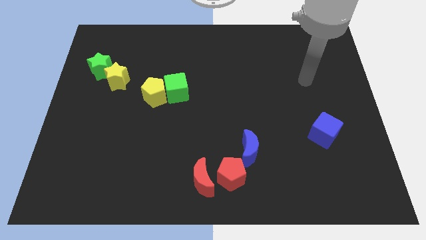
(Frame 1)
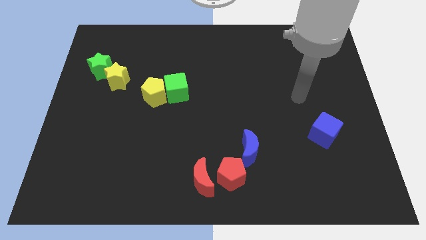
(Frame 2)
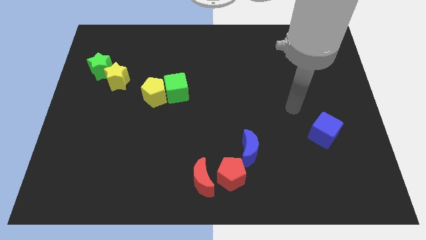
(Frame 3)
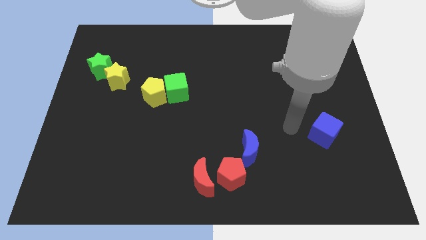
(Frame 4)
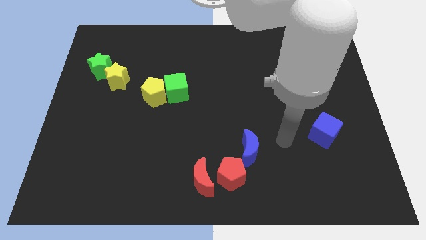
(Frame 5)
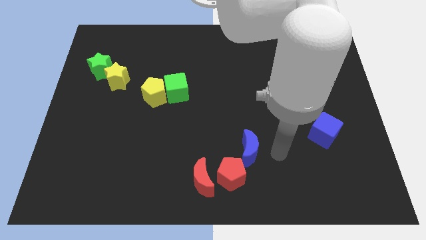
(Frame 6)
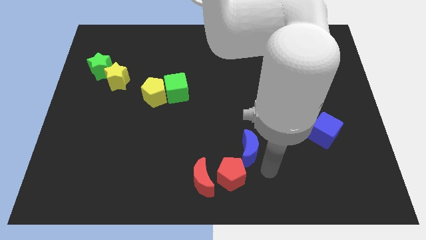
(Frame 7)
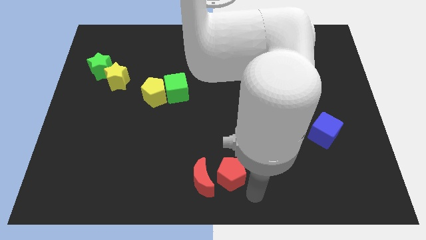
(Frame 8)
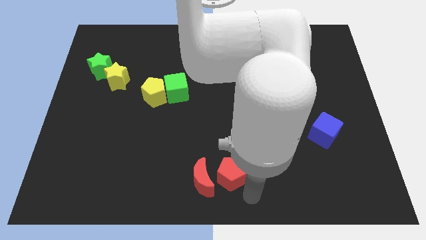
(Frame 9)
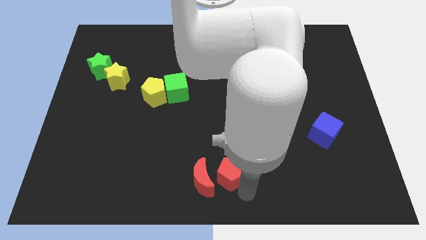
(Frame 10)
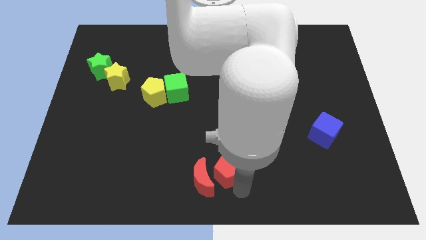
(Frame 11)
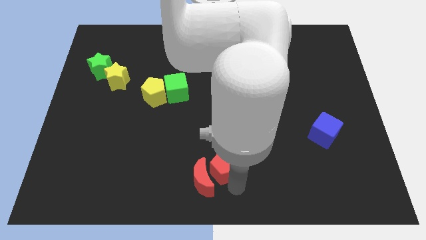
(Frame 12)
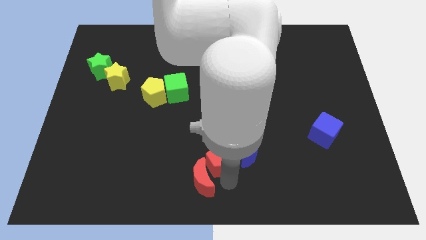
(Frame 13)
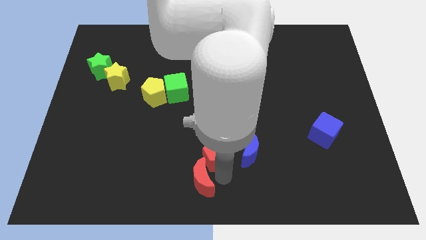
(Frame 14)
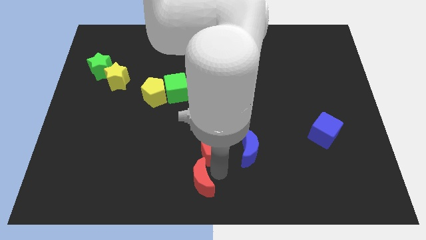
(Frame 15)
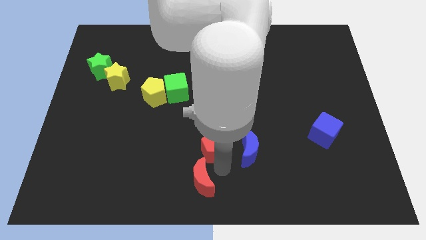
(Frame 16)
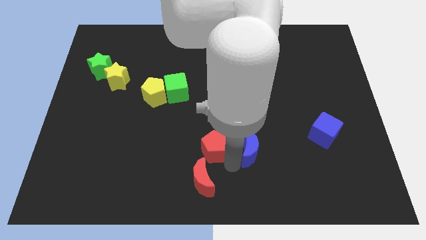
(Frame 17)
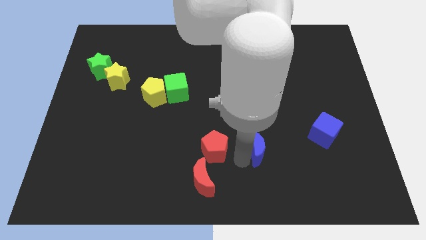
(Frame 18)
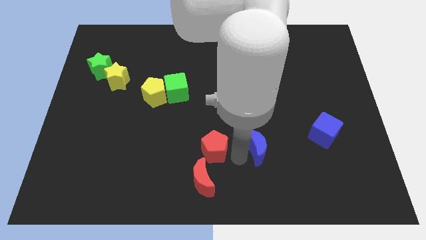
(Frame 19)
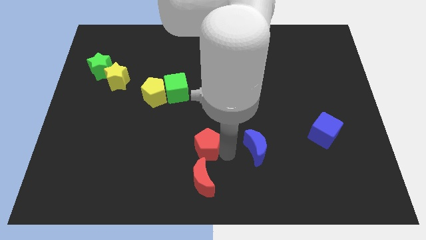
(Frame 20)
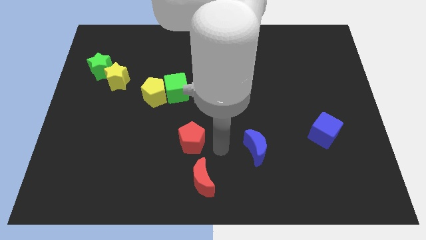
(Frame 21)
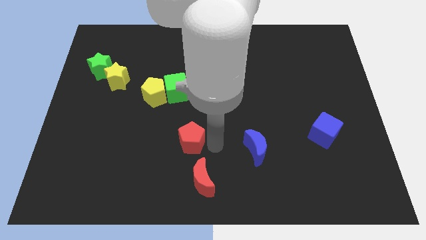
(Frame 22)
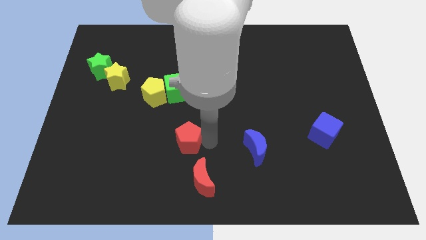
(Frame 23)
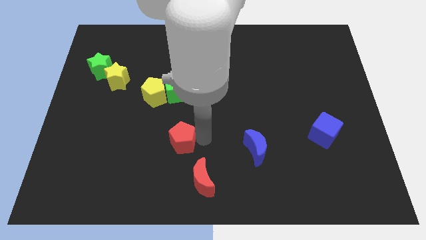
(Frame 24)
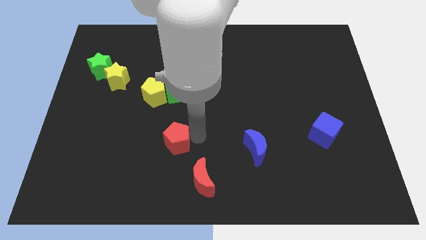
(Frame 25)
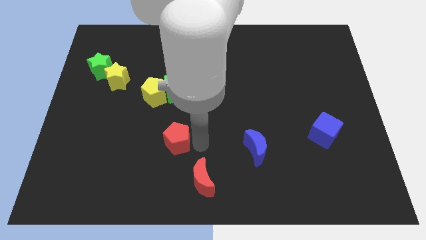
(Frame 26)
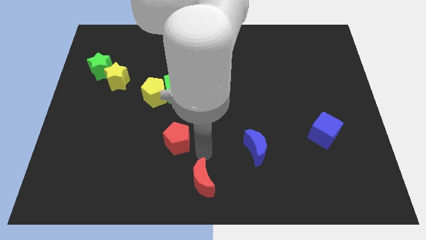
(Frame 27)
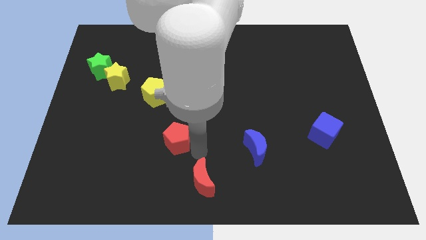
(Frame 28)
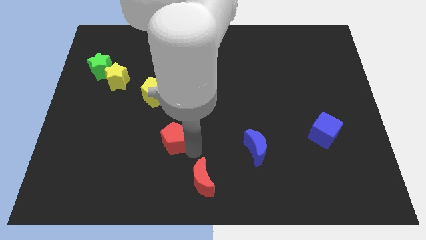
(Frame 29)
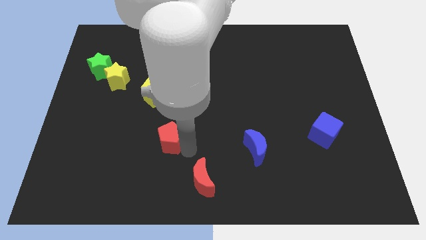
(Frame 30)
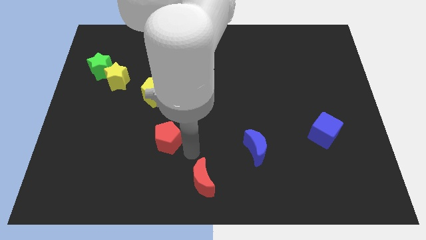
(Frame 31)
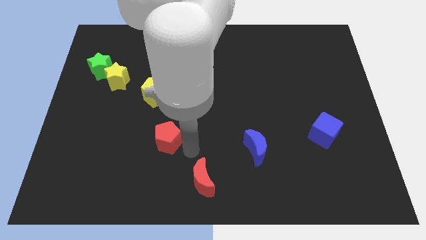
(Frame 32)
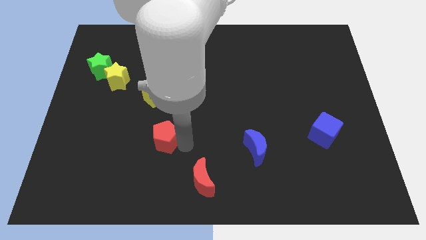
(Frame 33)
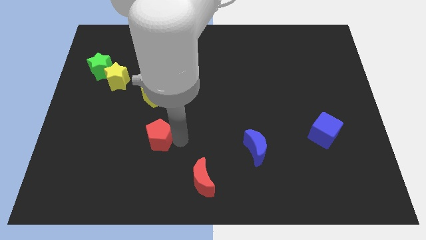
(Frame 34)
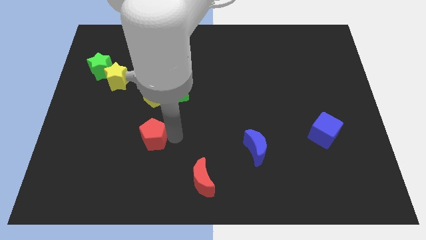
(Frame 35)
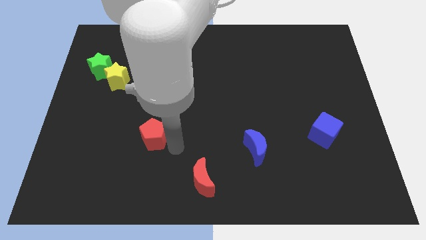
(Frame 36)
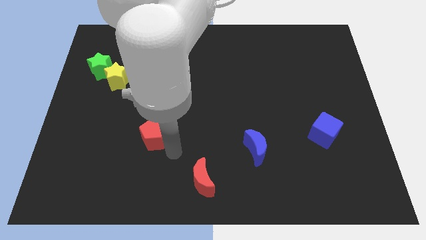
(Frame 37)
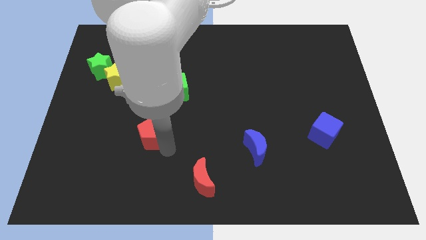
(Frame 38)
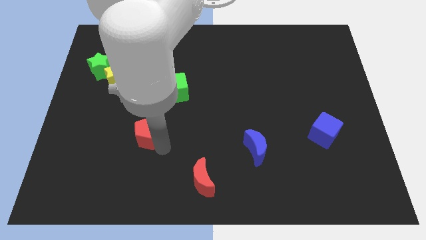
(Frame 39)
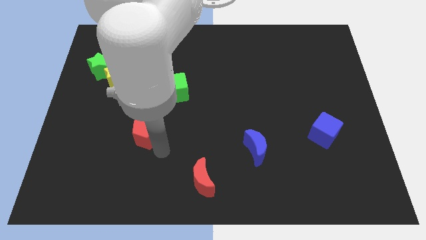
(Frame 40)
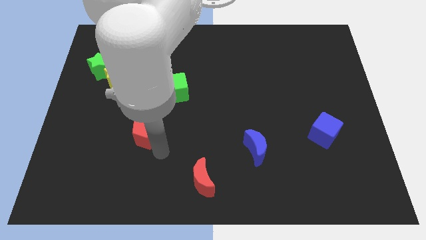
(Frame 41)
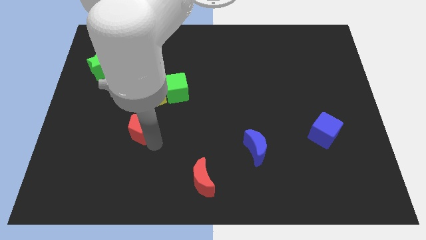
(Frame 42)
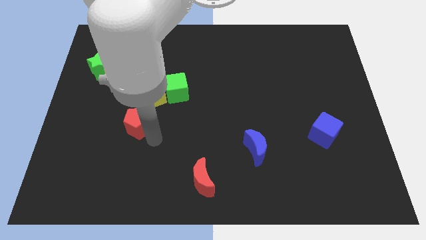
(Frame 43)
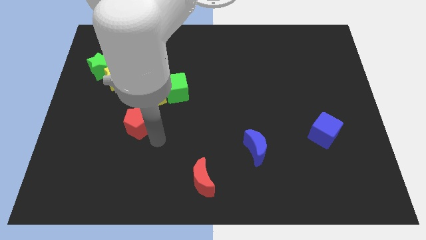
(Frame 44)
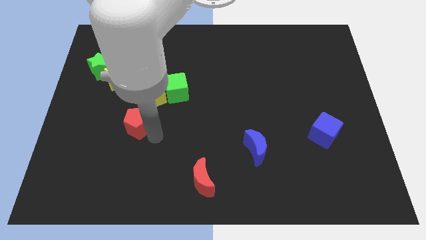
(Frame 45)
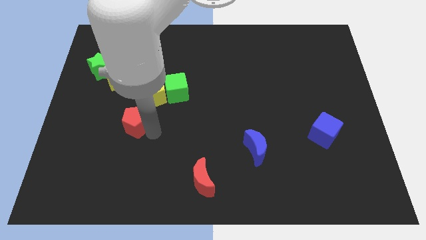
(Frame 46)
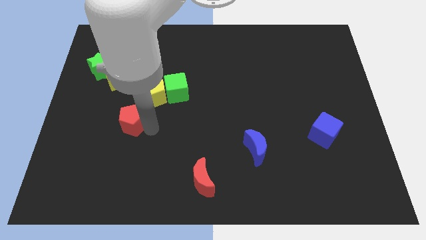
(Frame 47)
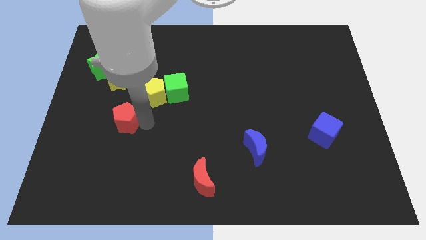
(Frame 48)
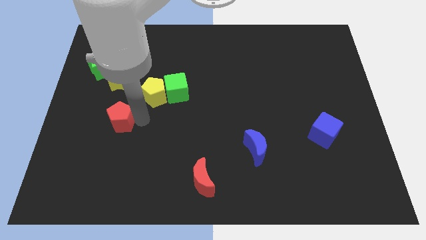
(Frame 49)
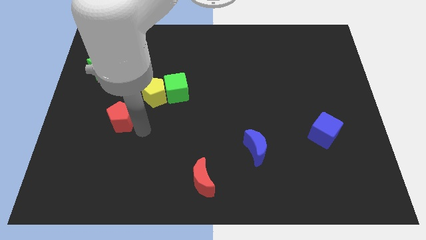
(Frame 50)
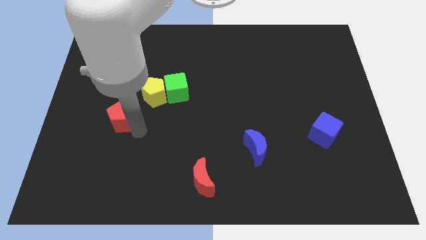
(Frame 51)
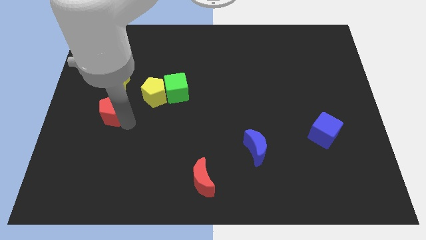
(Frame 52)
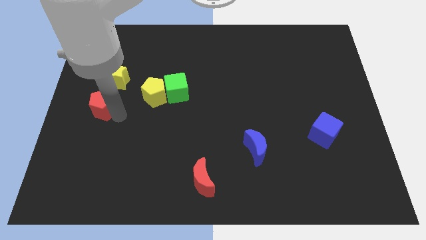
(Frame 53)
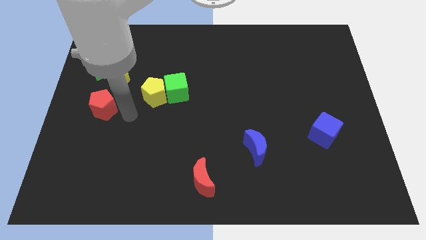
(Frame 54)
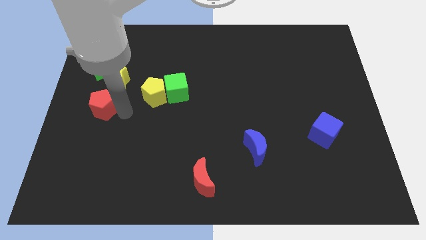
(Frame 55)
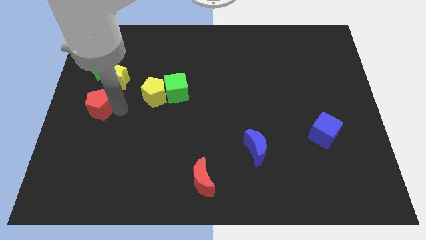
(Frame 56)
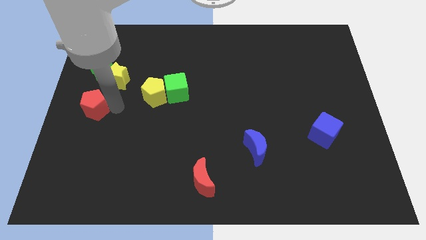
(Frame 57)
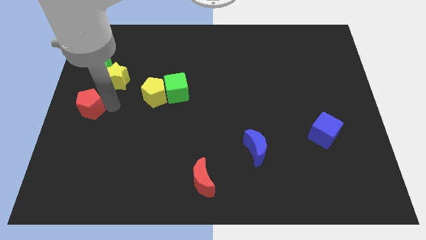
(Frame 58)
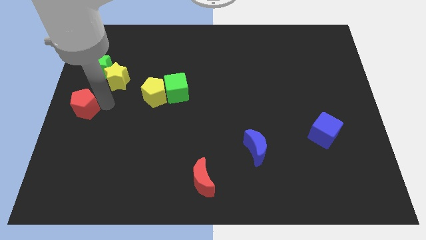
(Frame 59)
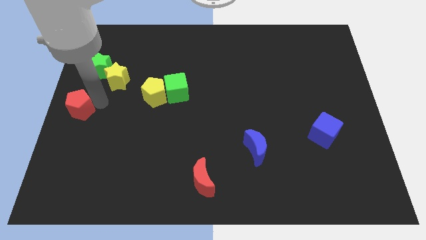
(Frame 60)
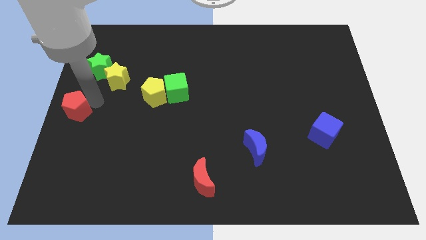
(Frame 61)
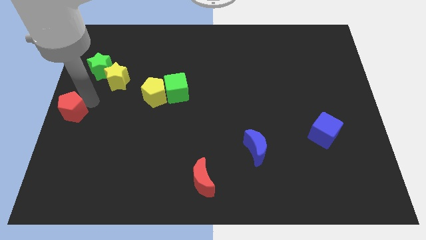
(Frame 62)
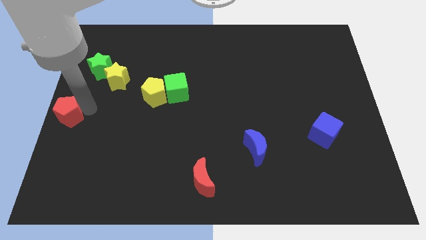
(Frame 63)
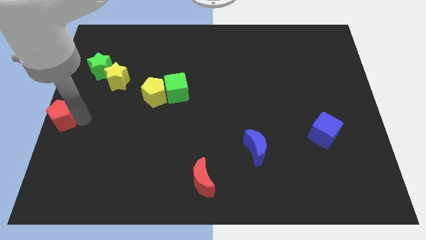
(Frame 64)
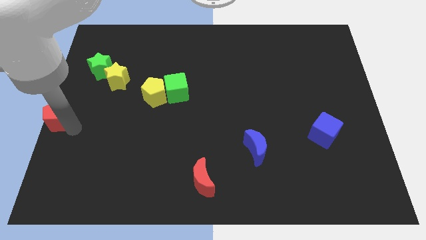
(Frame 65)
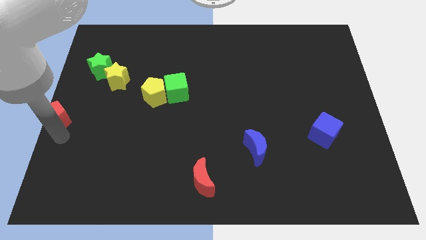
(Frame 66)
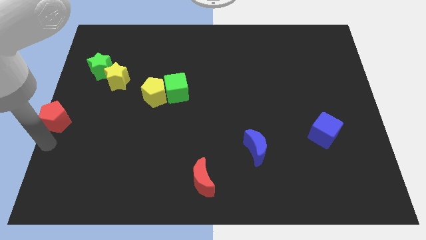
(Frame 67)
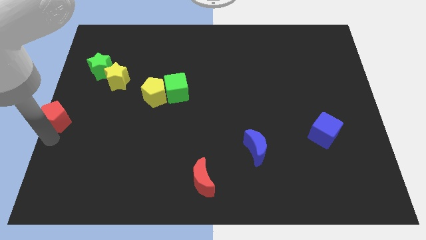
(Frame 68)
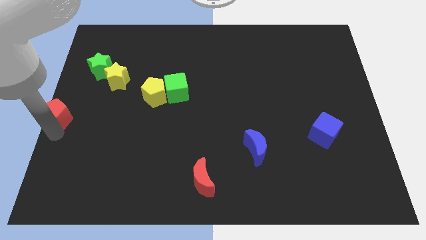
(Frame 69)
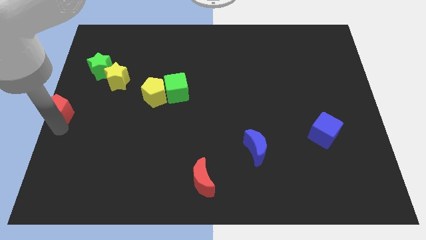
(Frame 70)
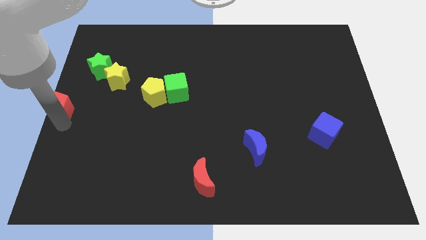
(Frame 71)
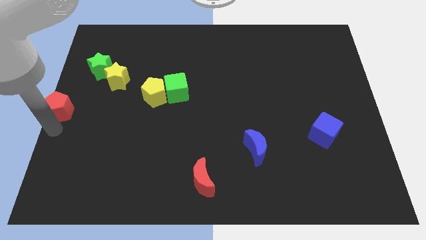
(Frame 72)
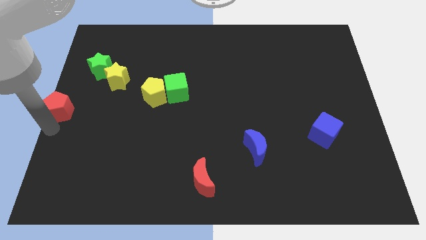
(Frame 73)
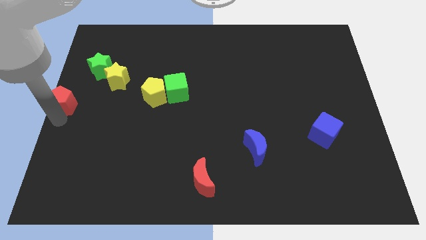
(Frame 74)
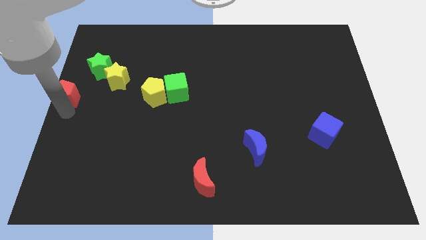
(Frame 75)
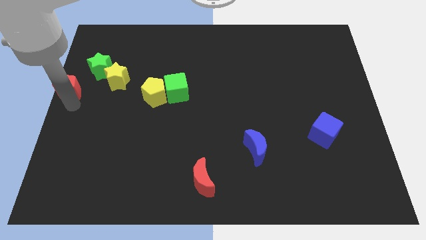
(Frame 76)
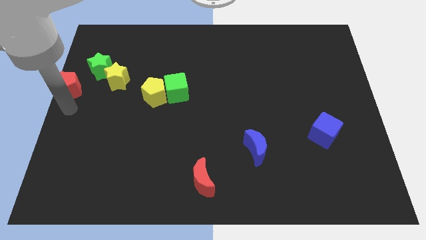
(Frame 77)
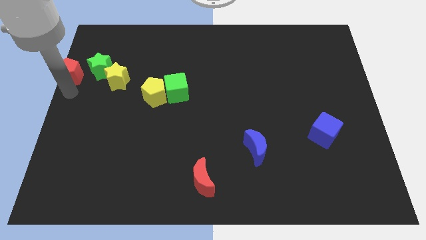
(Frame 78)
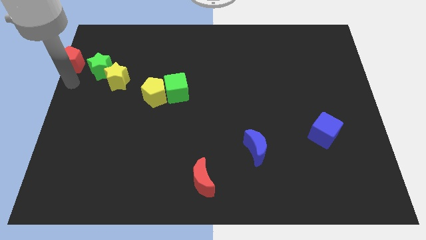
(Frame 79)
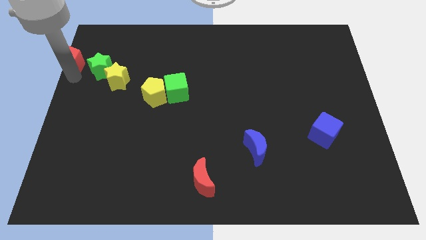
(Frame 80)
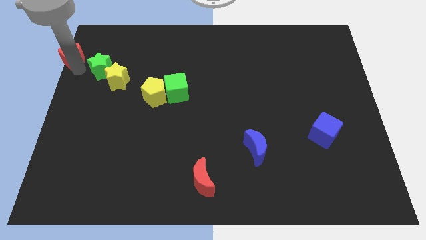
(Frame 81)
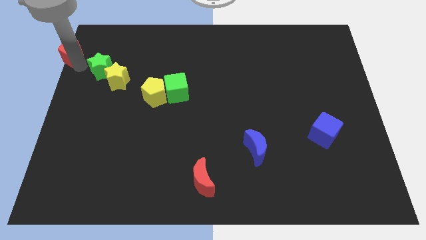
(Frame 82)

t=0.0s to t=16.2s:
put the red pentagon to the top left corner
